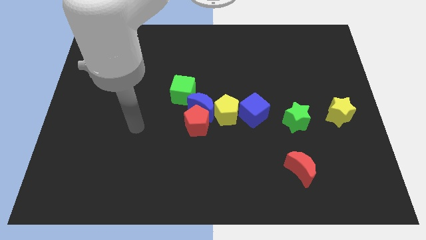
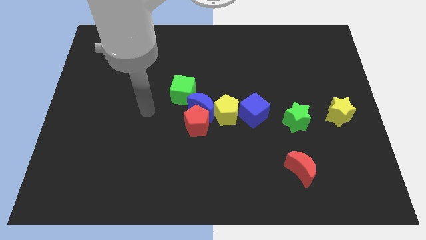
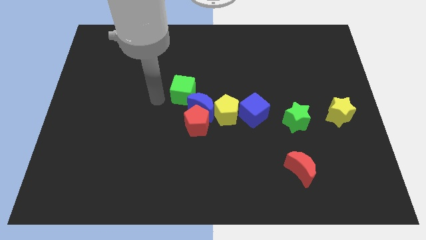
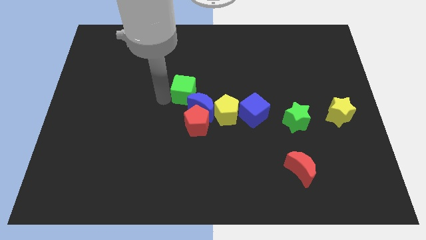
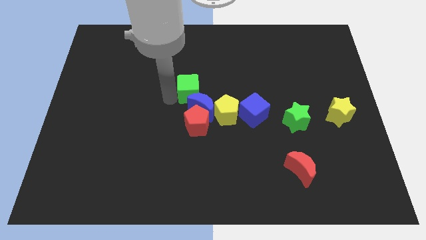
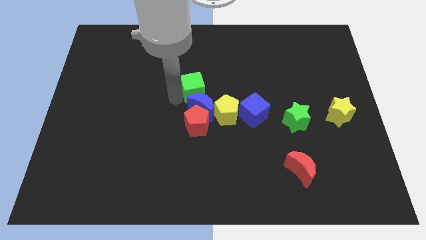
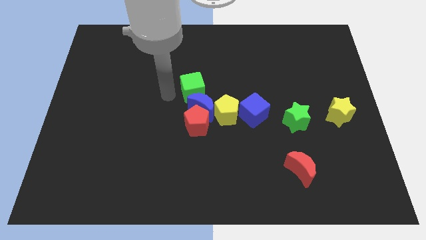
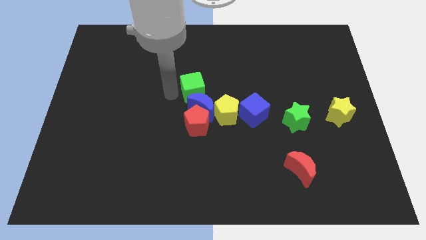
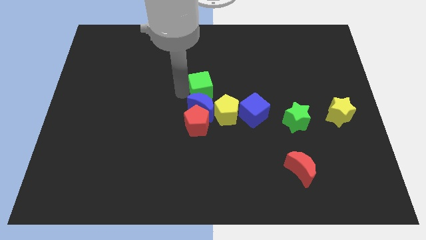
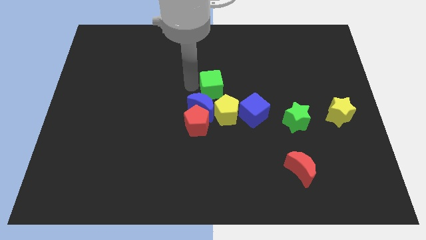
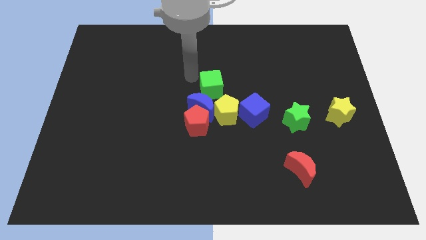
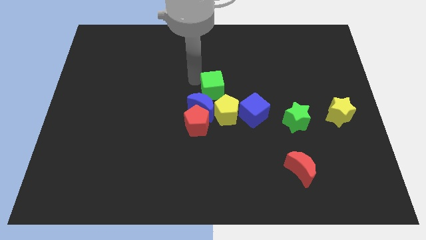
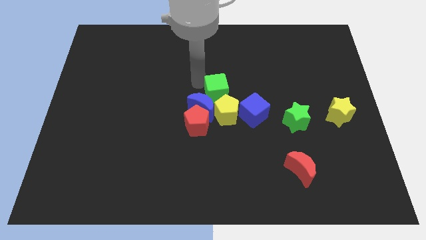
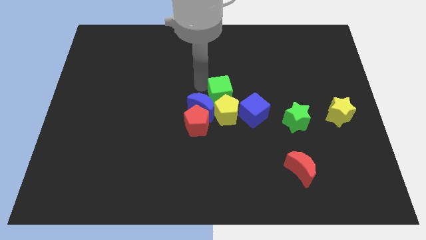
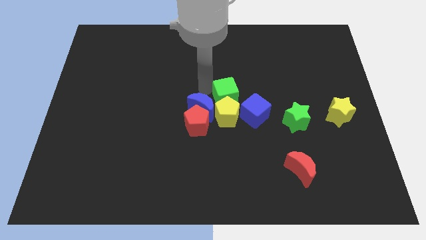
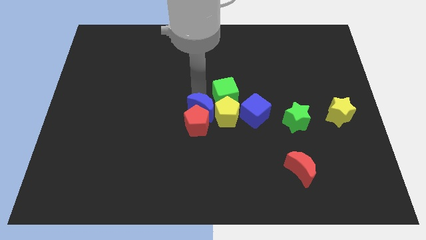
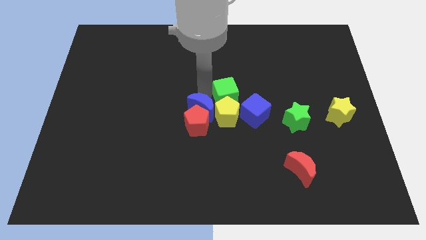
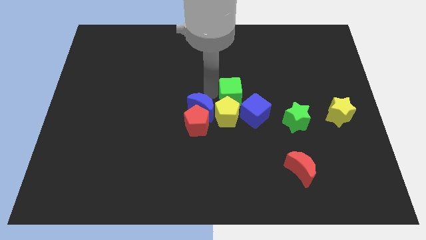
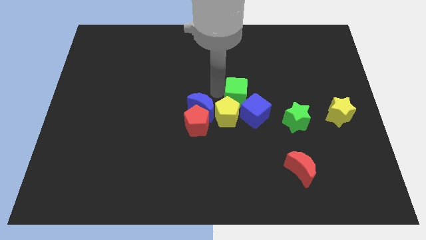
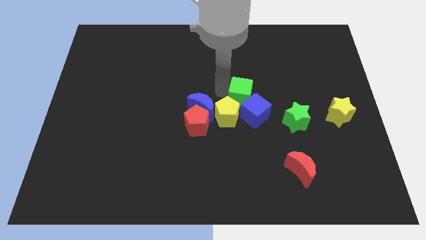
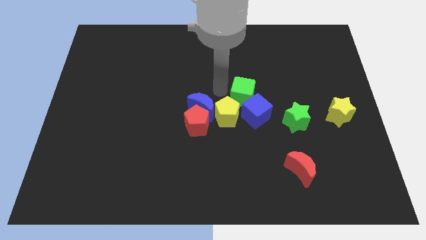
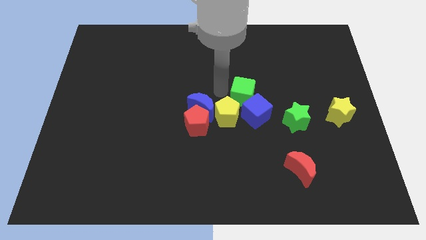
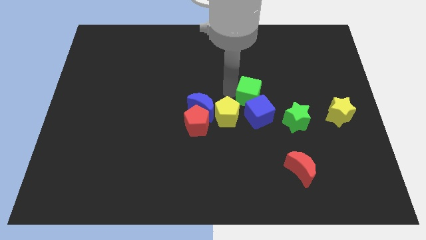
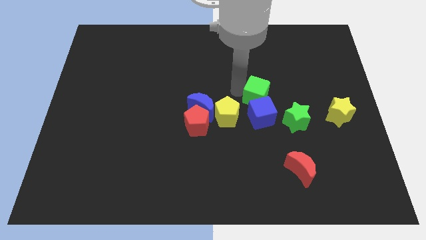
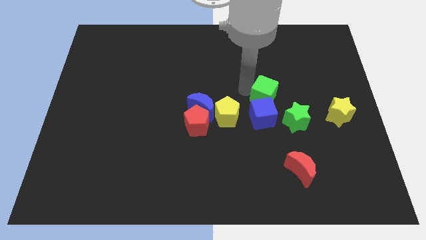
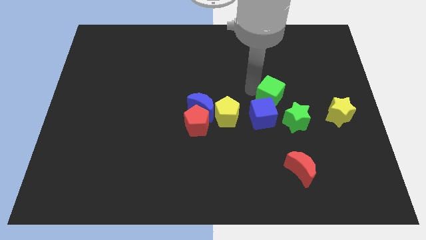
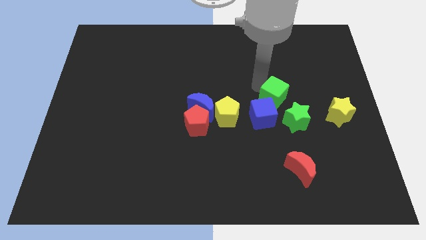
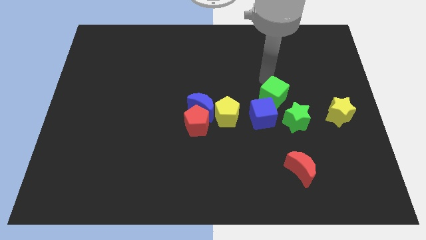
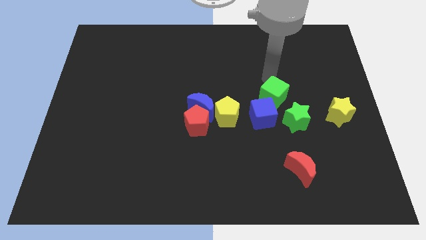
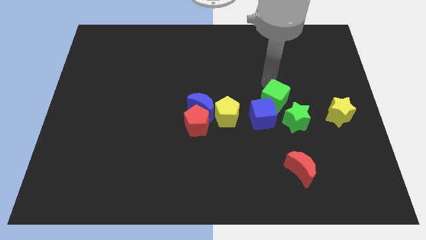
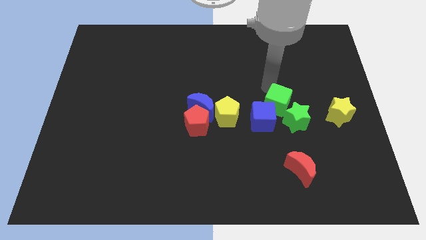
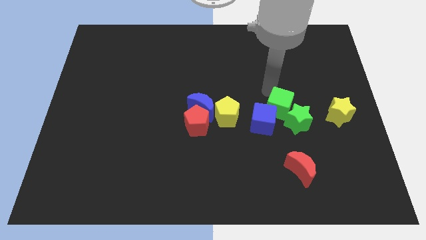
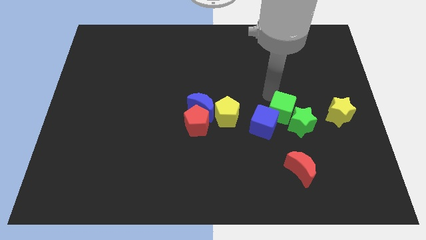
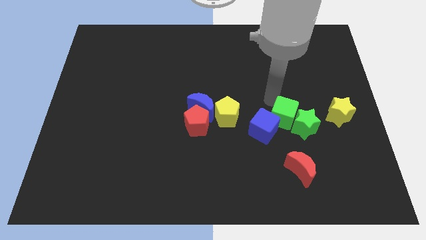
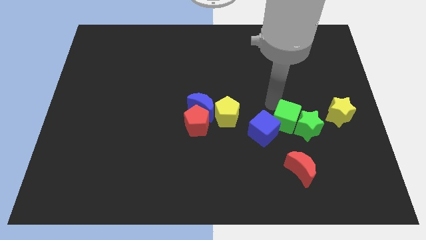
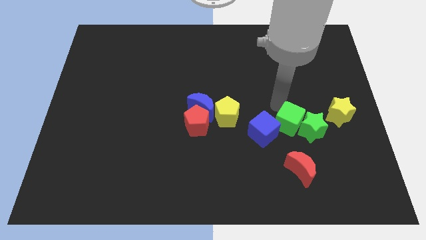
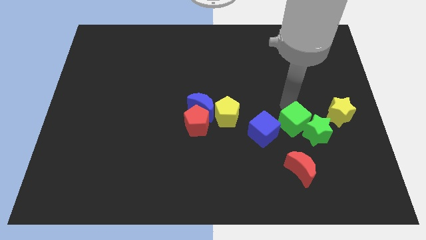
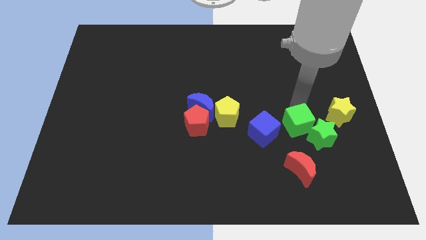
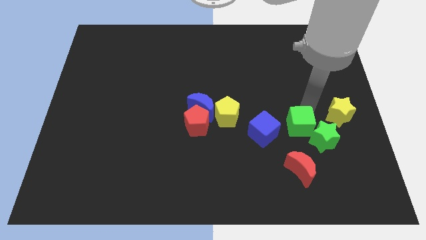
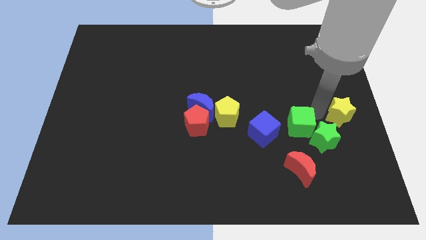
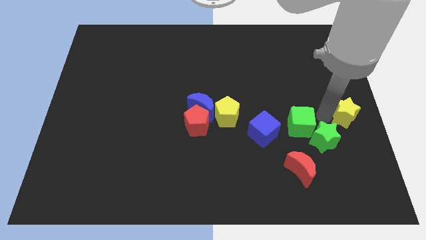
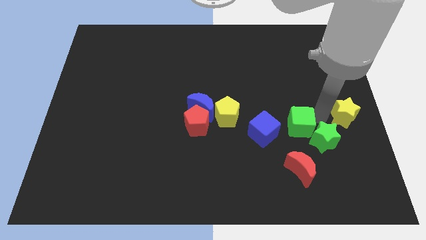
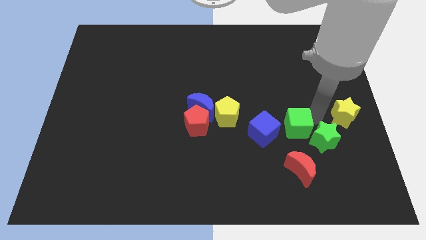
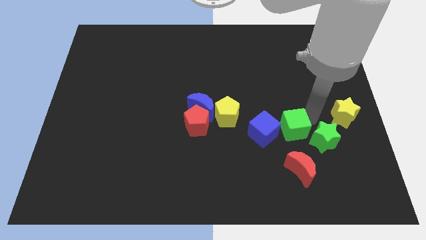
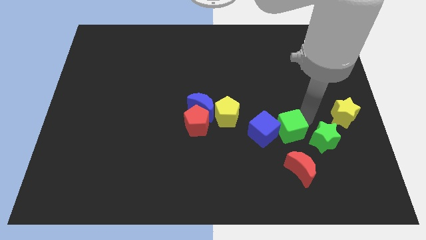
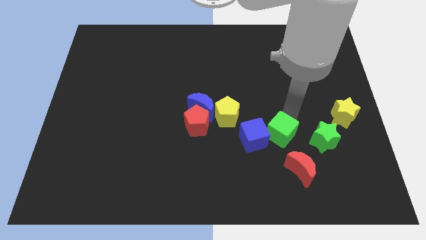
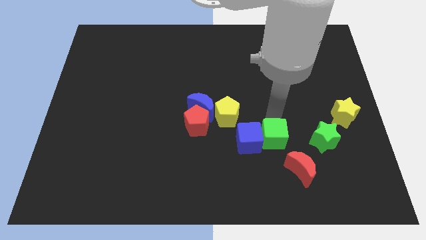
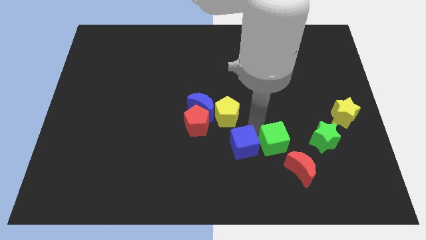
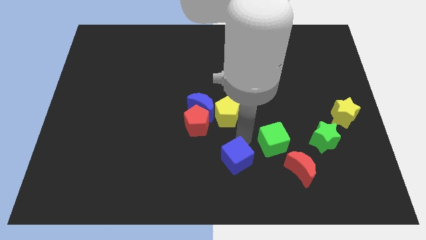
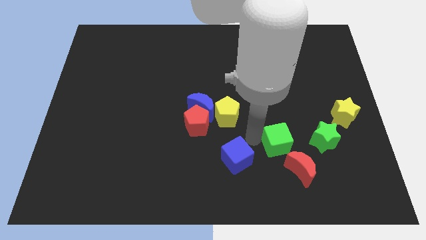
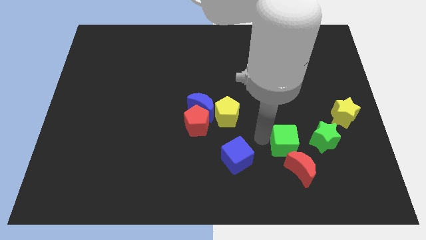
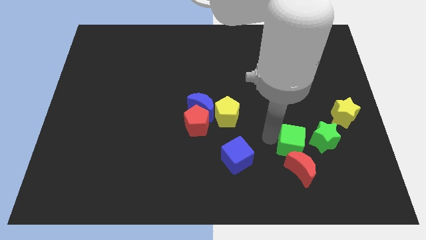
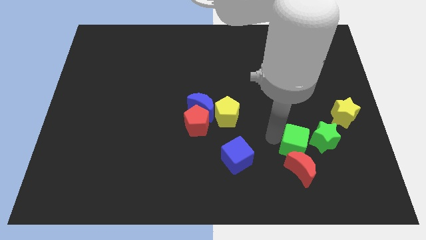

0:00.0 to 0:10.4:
slide the green cube to the top right of the red moon

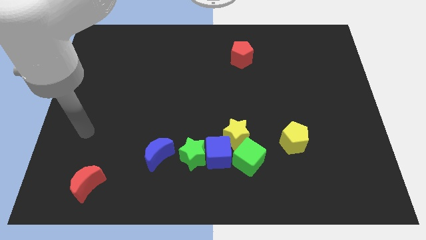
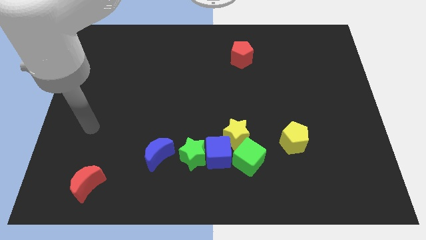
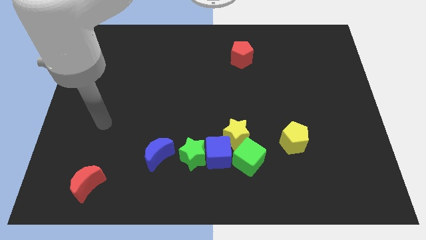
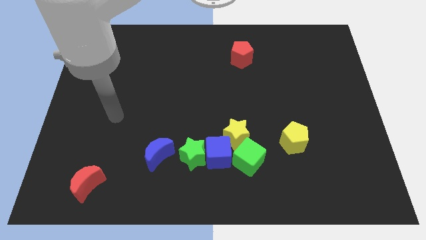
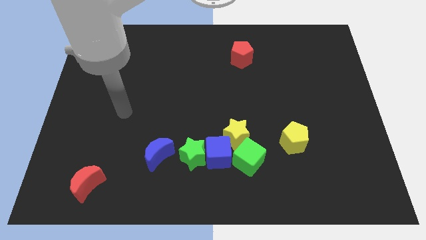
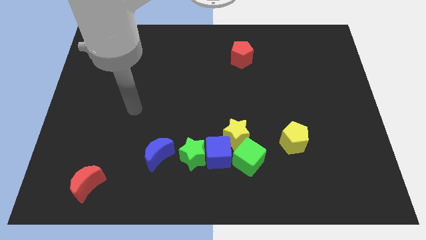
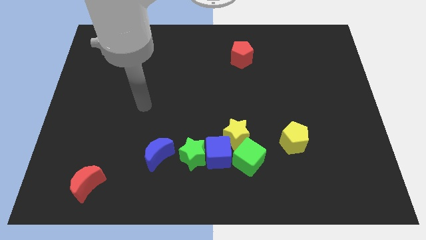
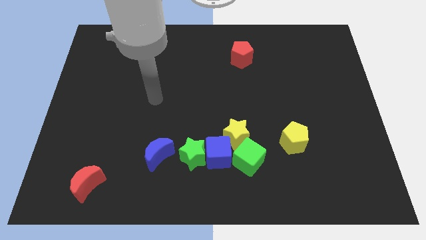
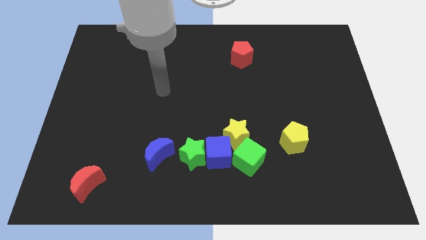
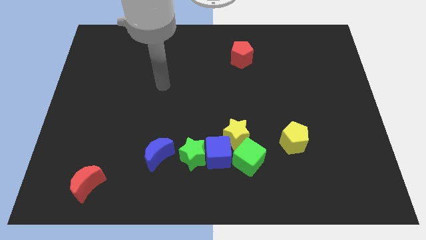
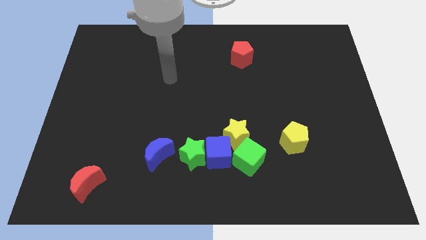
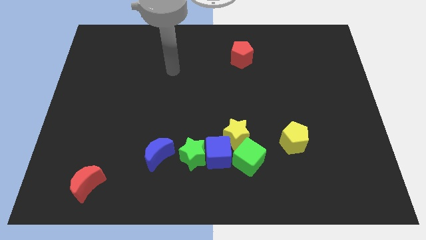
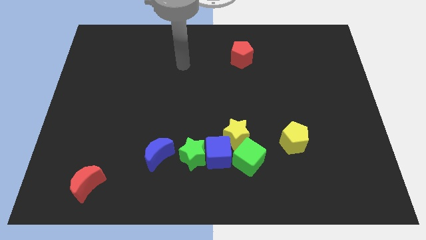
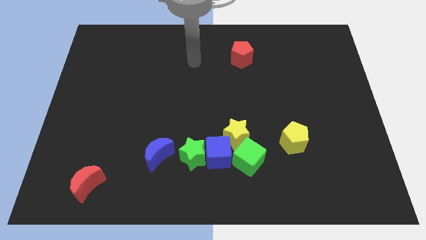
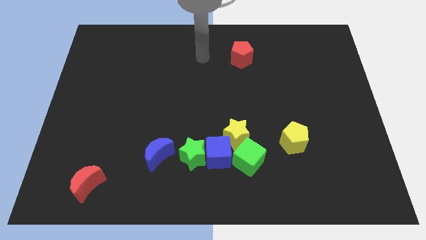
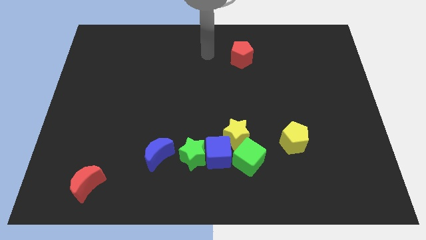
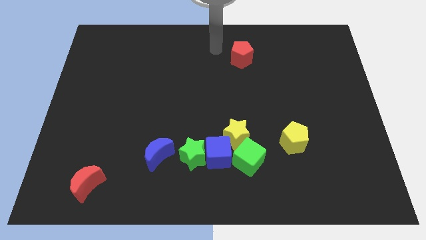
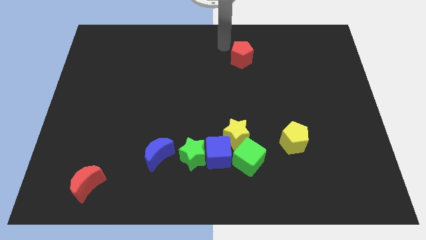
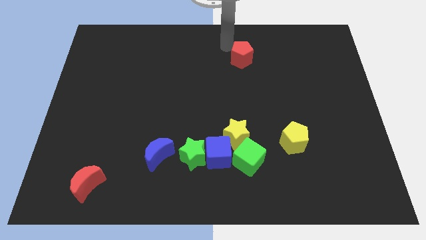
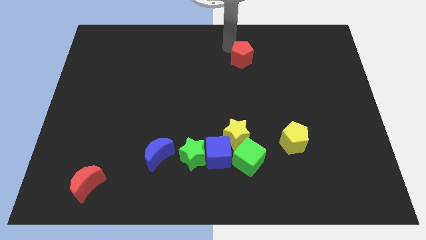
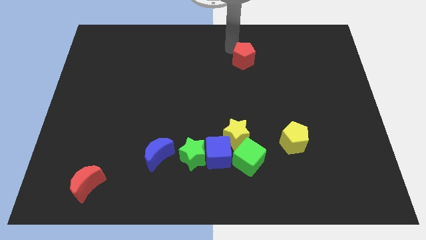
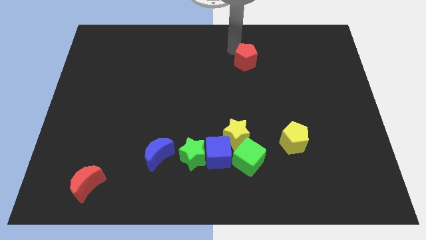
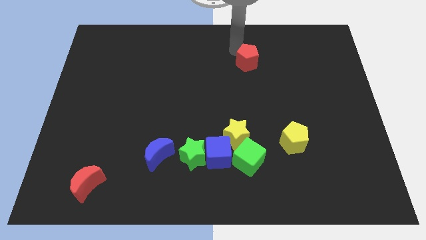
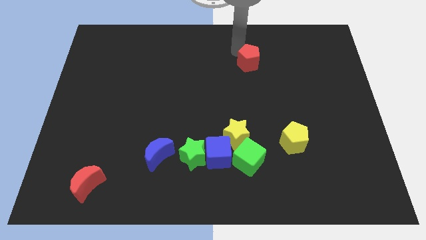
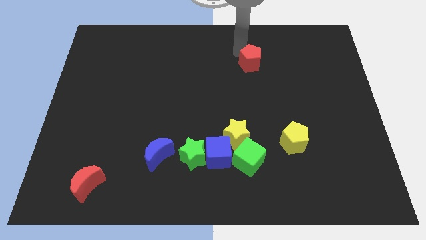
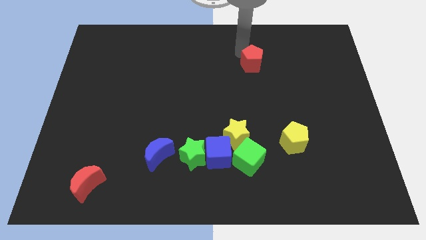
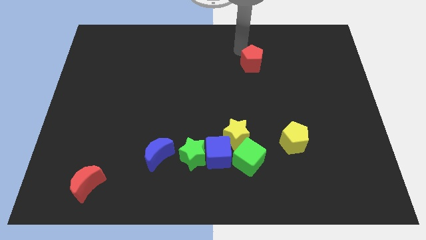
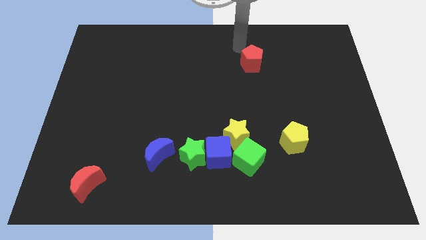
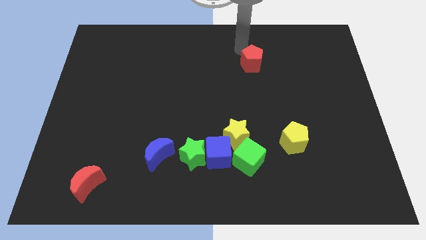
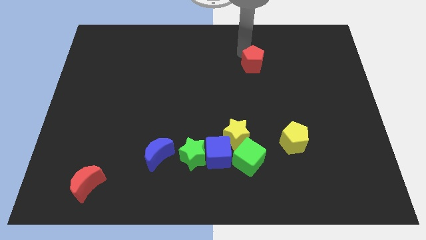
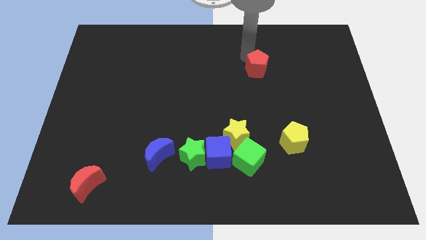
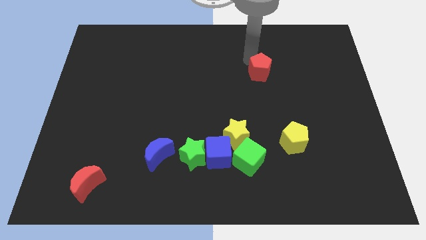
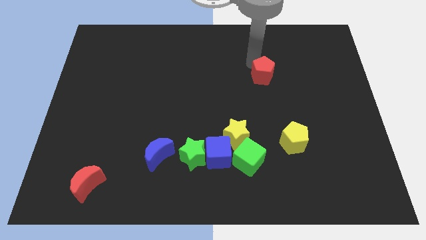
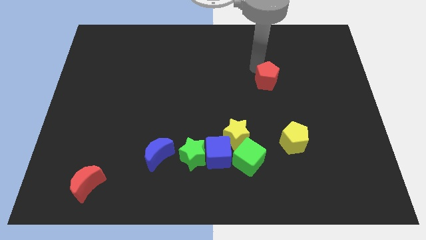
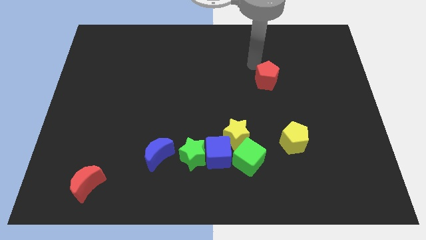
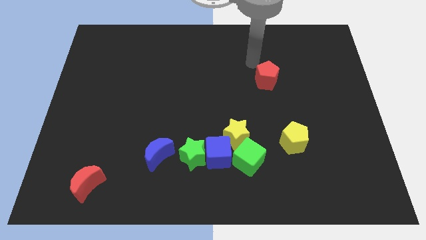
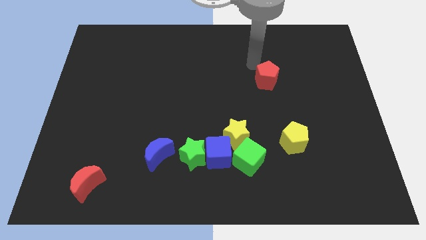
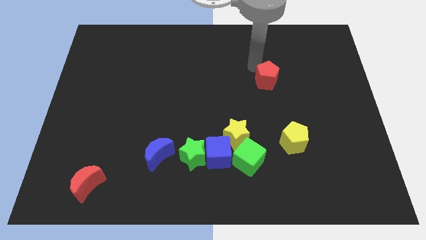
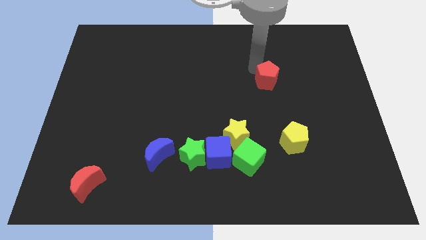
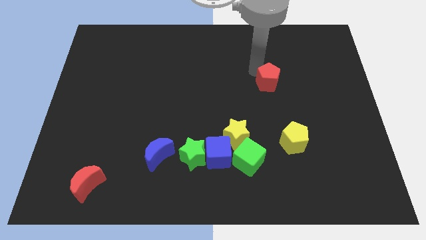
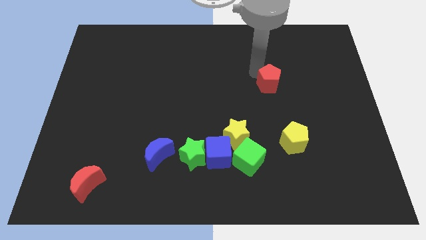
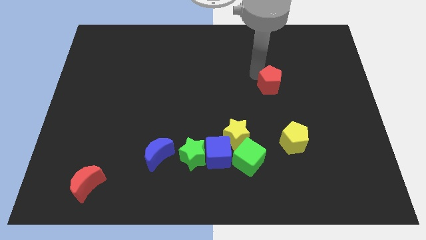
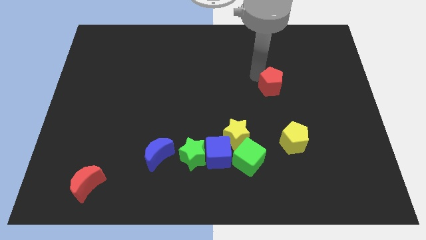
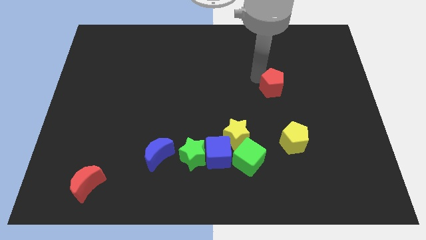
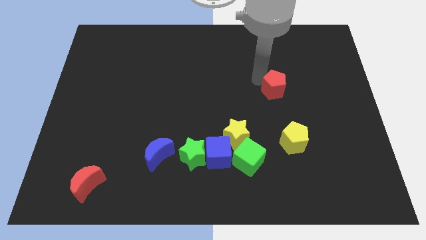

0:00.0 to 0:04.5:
push the red pentagon to the top of the yellow pentagon
